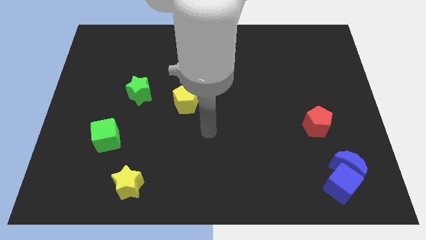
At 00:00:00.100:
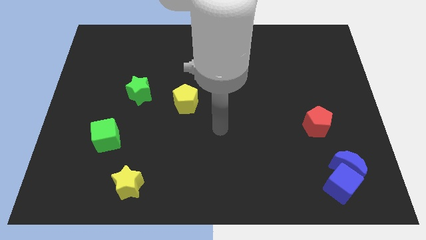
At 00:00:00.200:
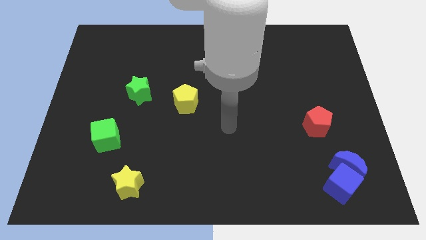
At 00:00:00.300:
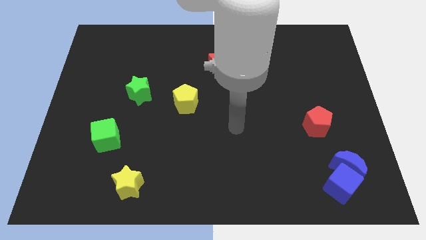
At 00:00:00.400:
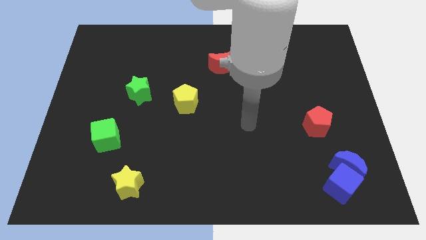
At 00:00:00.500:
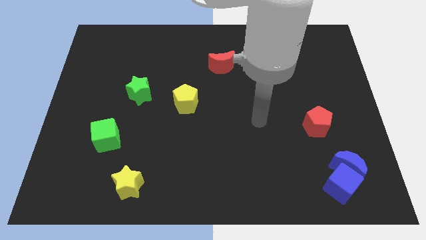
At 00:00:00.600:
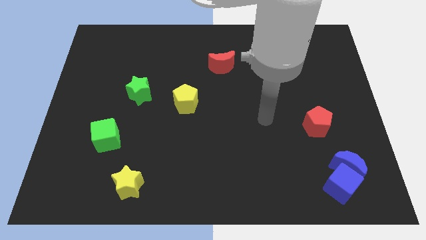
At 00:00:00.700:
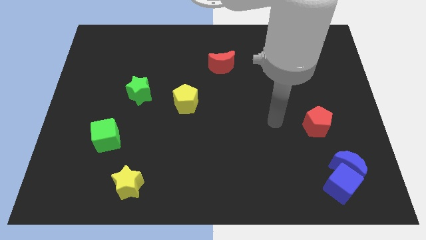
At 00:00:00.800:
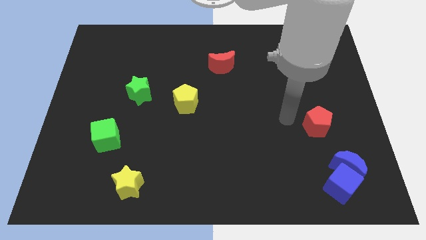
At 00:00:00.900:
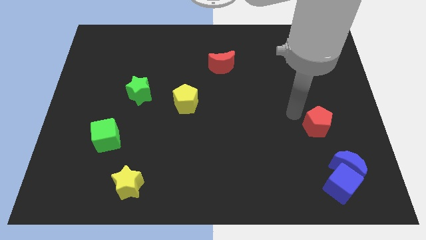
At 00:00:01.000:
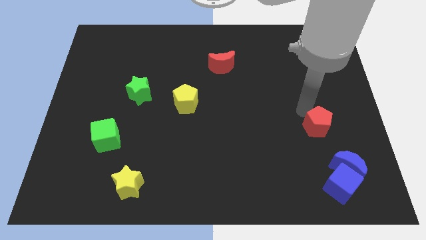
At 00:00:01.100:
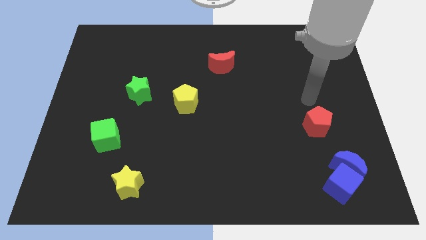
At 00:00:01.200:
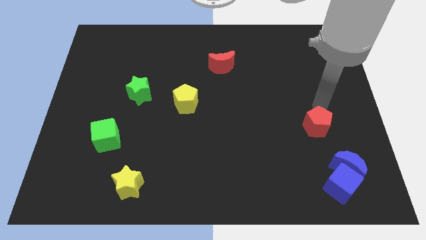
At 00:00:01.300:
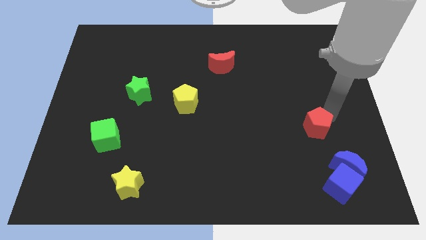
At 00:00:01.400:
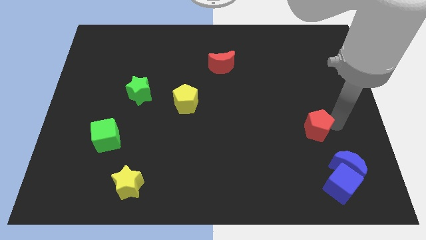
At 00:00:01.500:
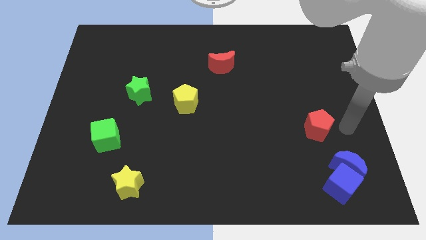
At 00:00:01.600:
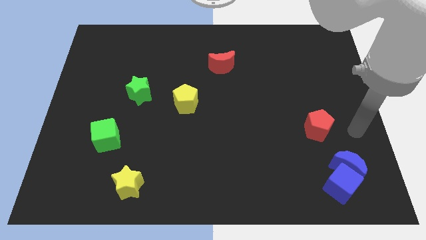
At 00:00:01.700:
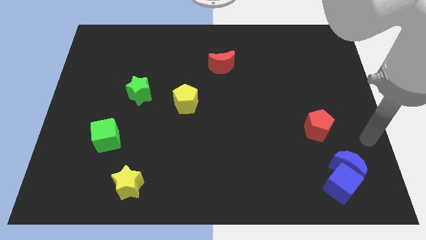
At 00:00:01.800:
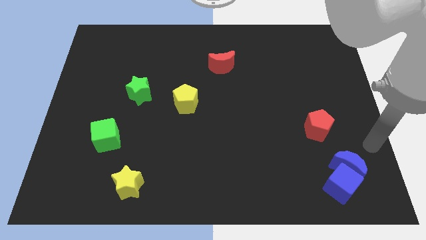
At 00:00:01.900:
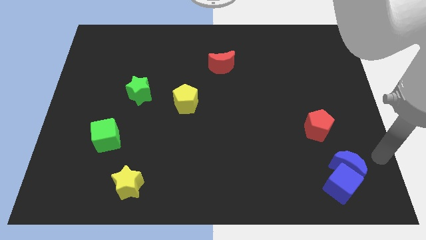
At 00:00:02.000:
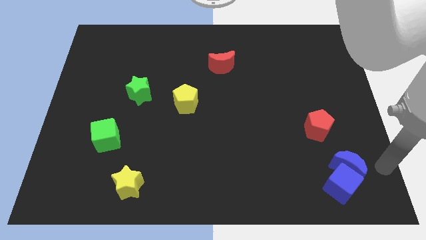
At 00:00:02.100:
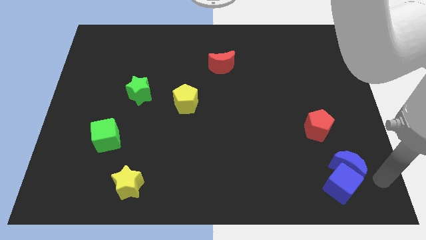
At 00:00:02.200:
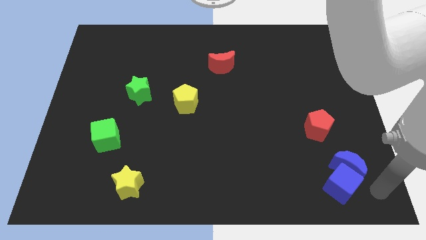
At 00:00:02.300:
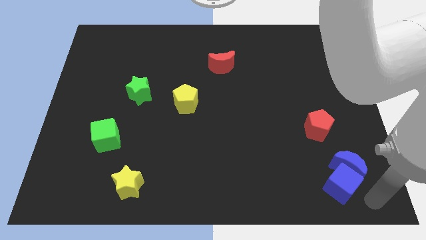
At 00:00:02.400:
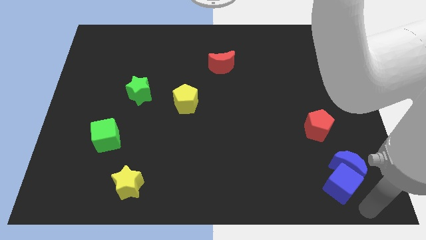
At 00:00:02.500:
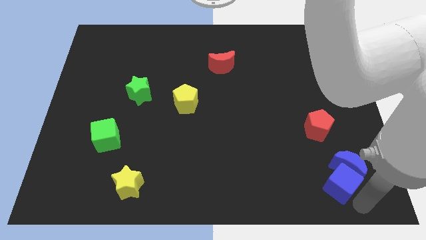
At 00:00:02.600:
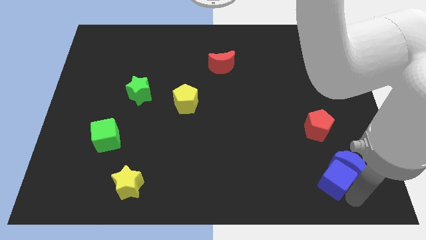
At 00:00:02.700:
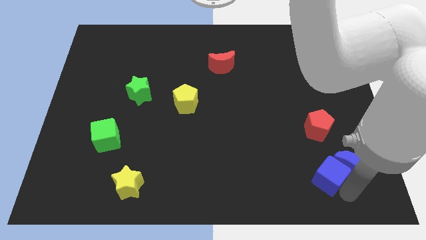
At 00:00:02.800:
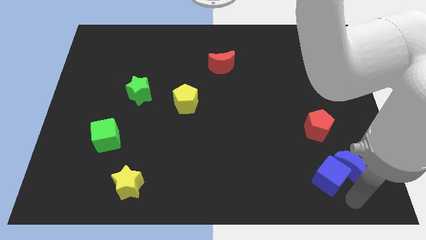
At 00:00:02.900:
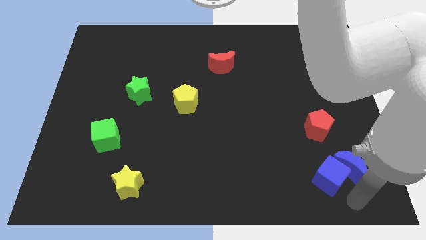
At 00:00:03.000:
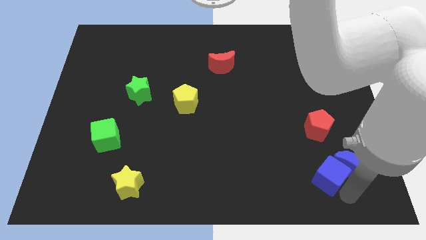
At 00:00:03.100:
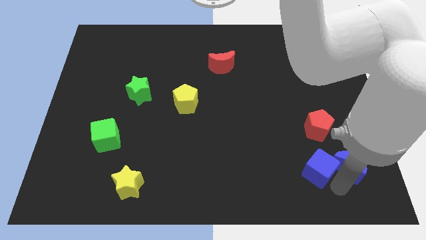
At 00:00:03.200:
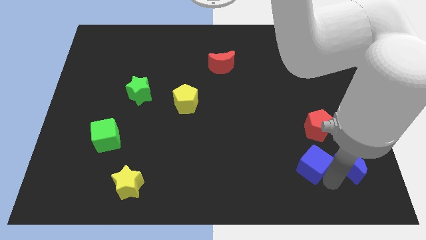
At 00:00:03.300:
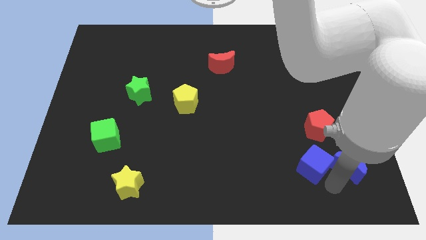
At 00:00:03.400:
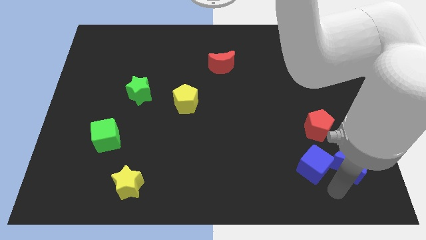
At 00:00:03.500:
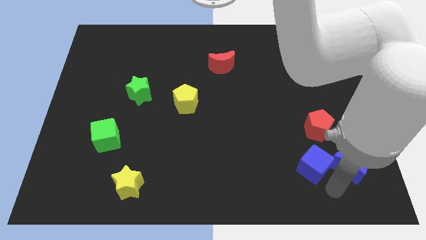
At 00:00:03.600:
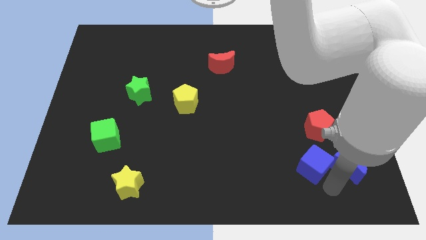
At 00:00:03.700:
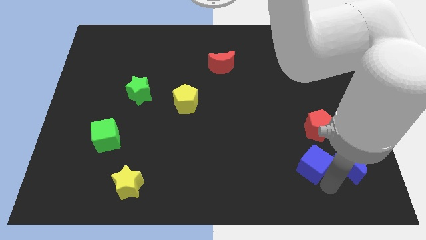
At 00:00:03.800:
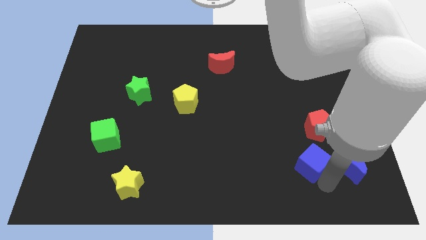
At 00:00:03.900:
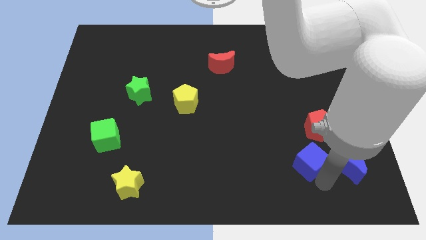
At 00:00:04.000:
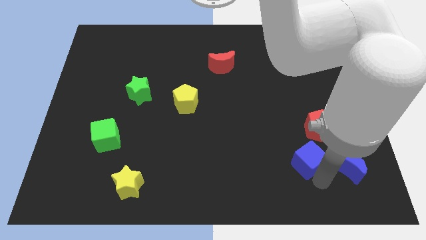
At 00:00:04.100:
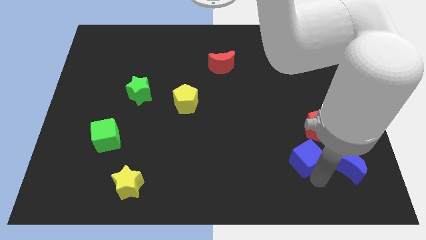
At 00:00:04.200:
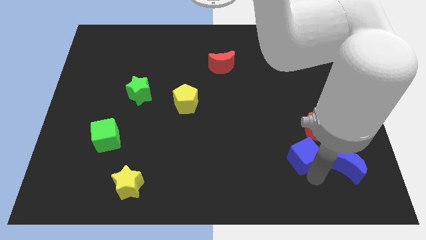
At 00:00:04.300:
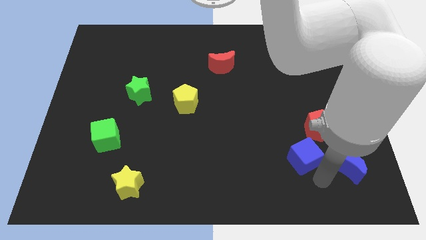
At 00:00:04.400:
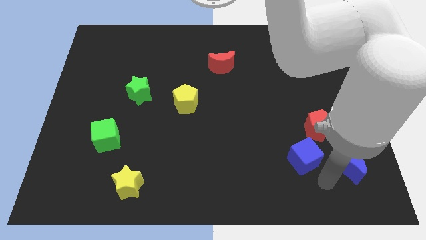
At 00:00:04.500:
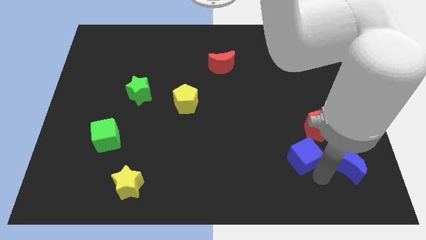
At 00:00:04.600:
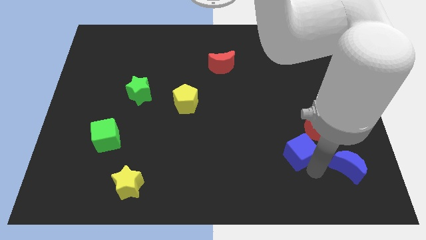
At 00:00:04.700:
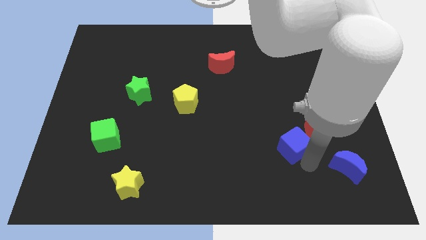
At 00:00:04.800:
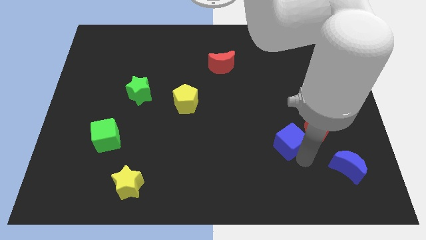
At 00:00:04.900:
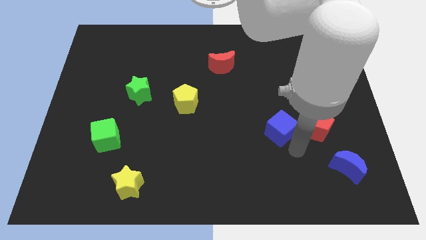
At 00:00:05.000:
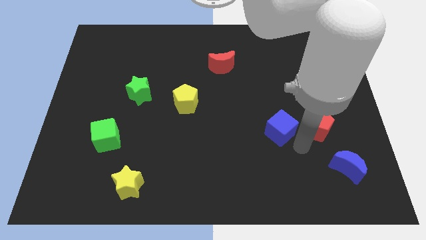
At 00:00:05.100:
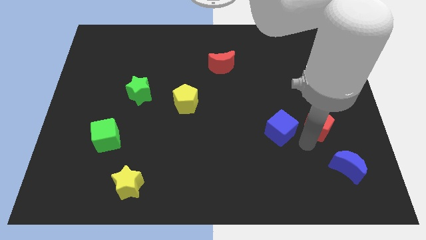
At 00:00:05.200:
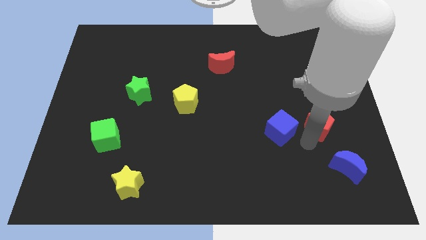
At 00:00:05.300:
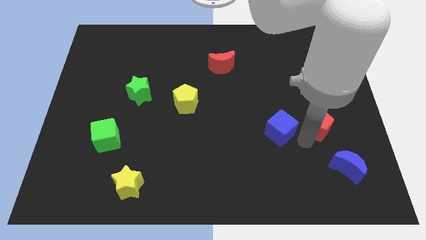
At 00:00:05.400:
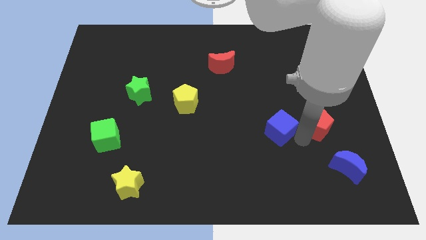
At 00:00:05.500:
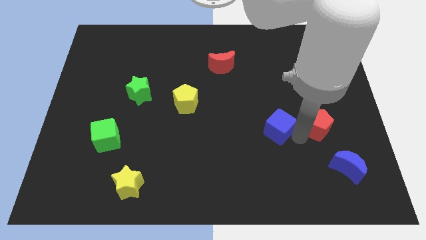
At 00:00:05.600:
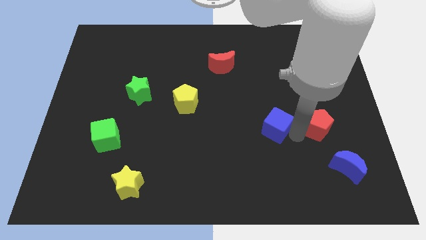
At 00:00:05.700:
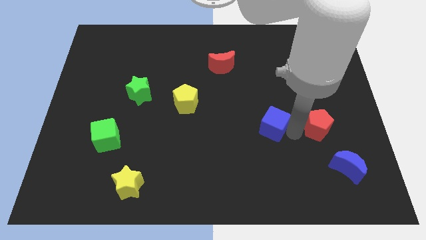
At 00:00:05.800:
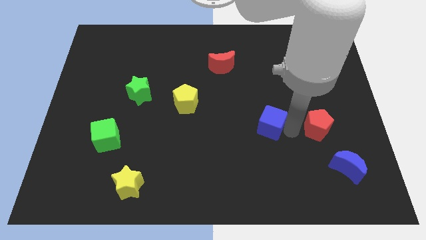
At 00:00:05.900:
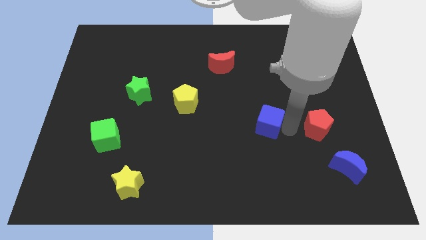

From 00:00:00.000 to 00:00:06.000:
push the blue cube up and to the left

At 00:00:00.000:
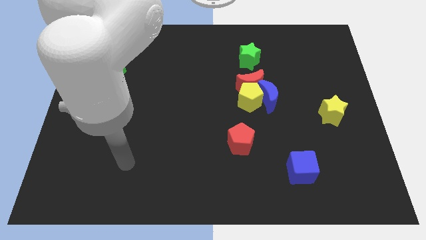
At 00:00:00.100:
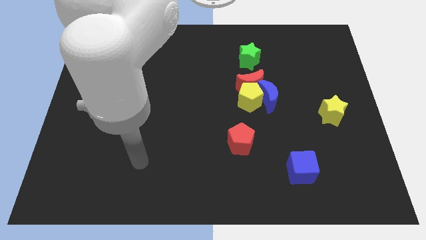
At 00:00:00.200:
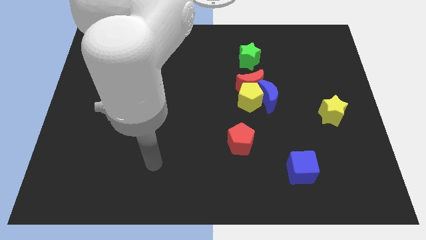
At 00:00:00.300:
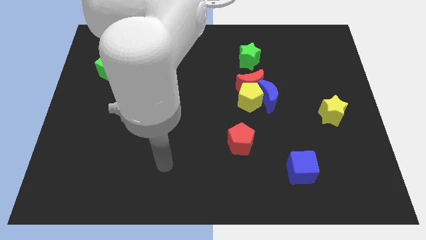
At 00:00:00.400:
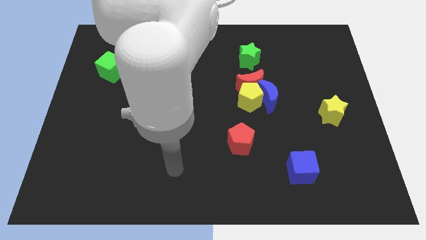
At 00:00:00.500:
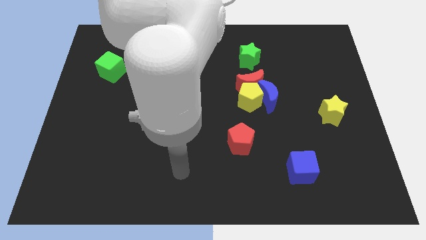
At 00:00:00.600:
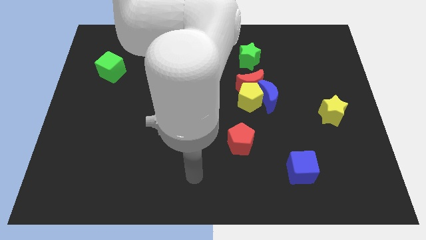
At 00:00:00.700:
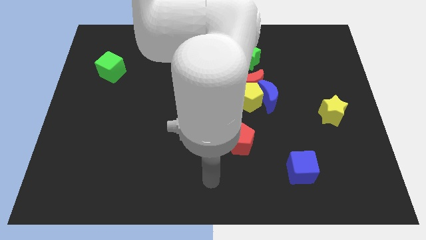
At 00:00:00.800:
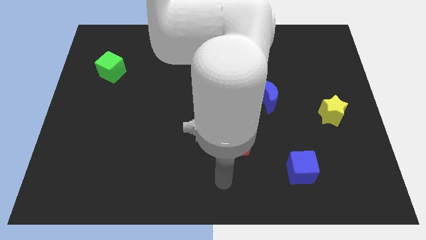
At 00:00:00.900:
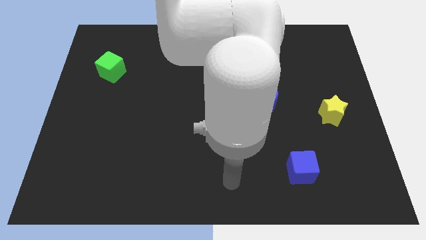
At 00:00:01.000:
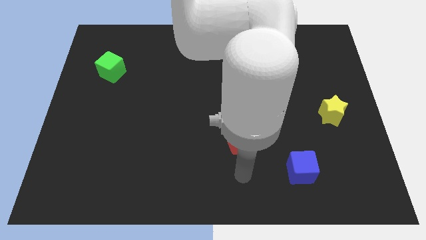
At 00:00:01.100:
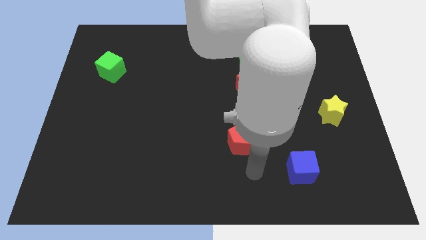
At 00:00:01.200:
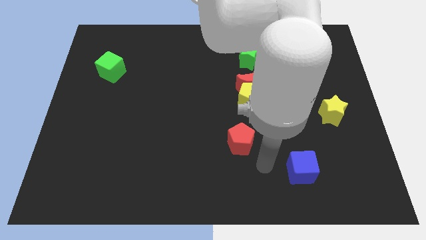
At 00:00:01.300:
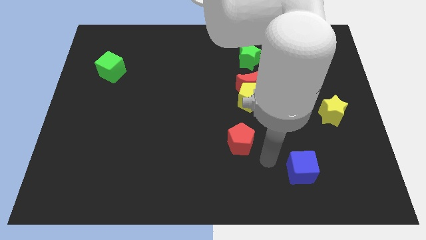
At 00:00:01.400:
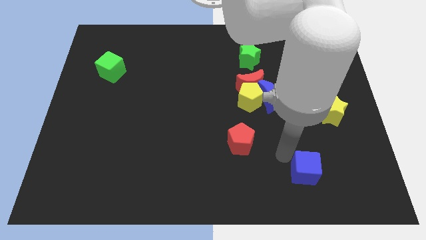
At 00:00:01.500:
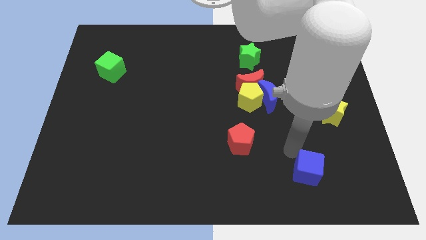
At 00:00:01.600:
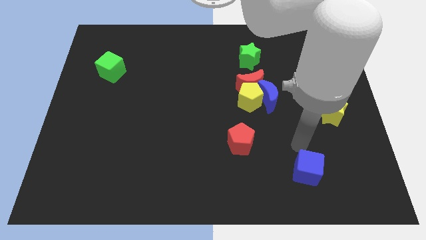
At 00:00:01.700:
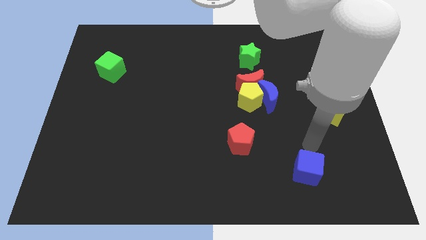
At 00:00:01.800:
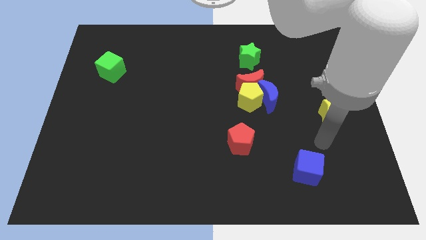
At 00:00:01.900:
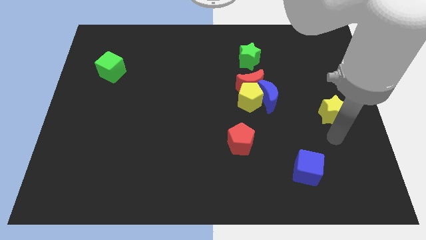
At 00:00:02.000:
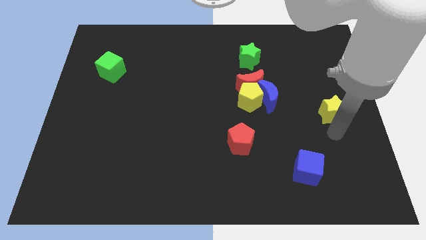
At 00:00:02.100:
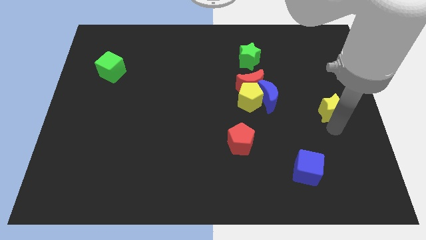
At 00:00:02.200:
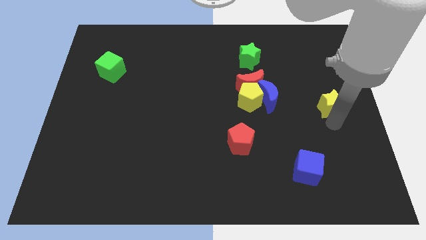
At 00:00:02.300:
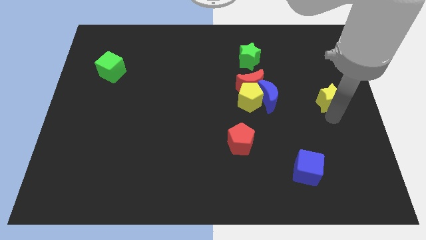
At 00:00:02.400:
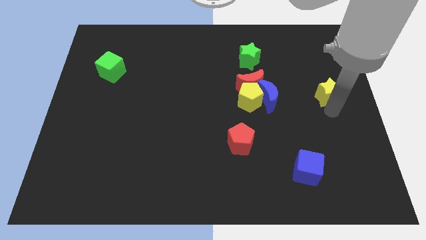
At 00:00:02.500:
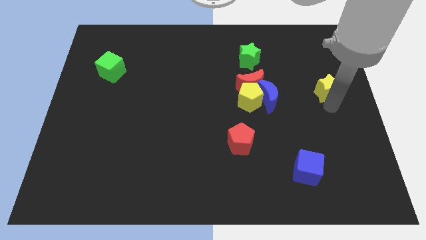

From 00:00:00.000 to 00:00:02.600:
push the yellow star up a little
